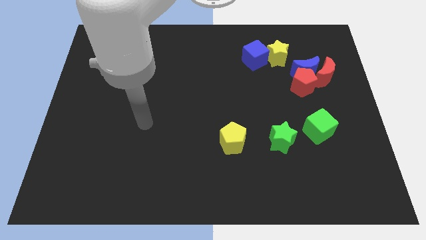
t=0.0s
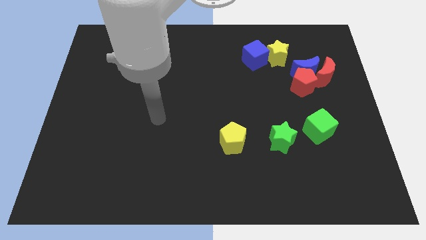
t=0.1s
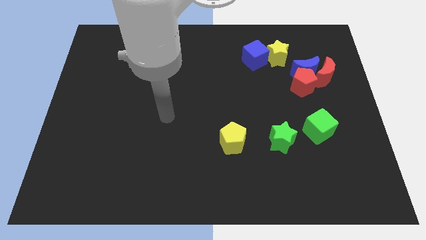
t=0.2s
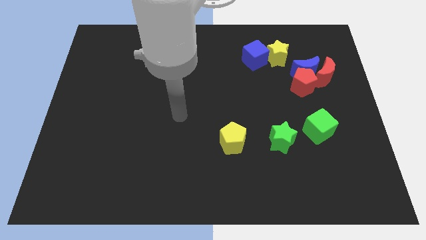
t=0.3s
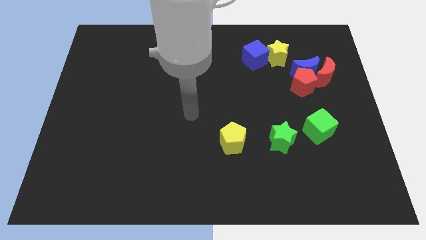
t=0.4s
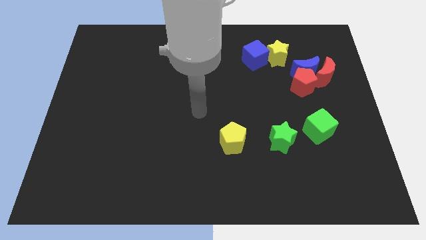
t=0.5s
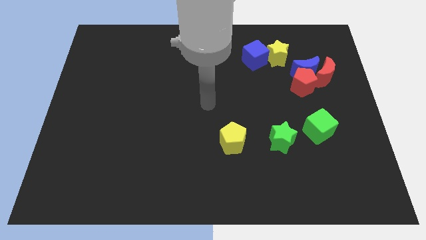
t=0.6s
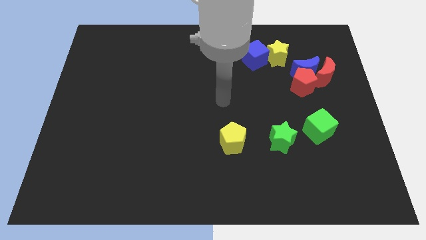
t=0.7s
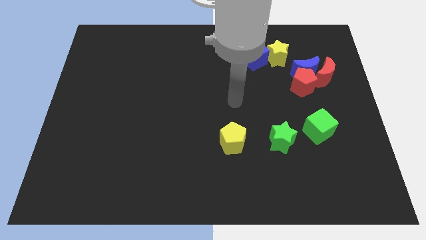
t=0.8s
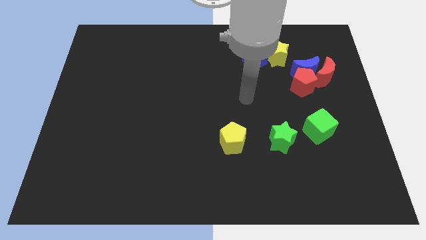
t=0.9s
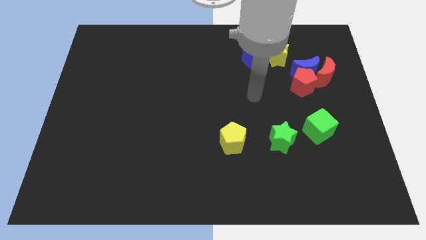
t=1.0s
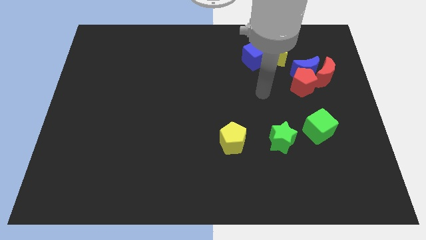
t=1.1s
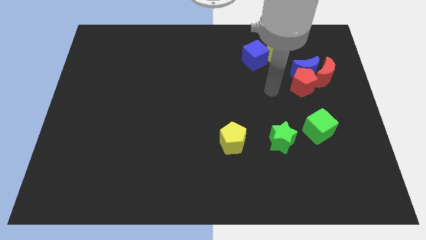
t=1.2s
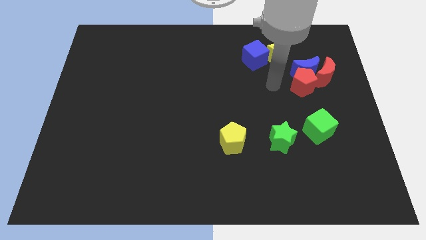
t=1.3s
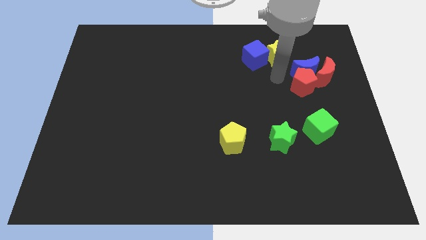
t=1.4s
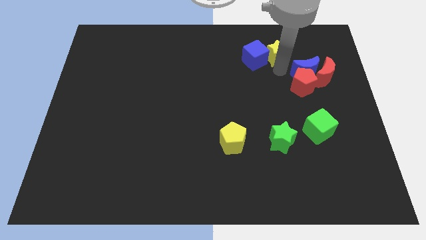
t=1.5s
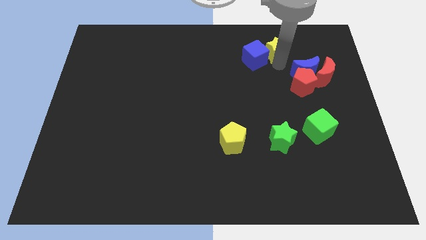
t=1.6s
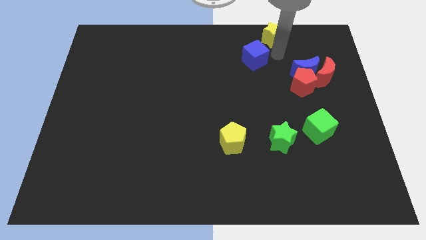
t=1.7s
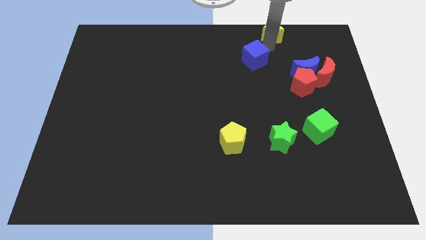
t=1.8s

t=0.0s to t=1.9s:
pull the blue cube apart from the yellow star

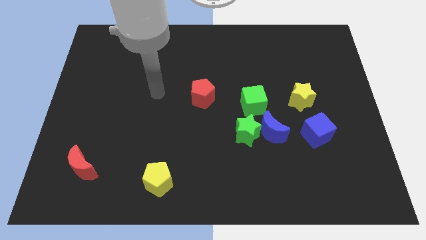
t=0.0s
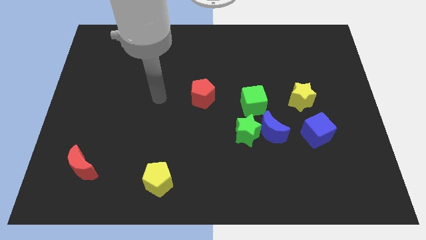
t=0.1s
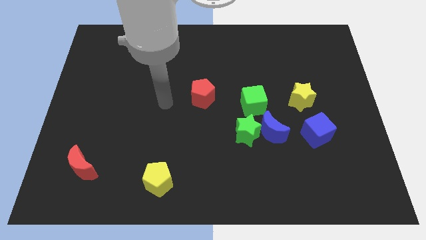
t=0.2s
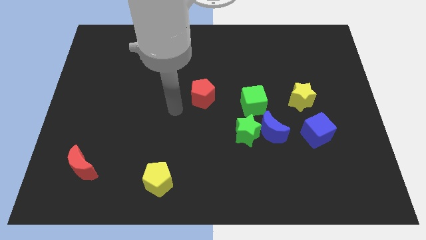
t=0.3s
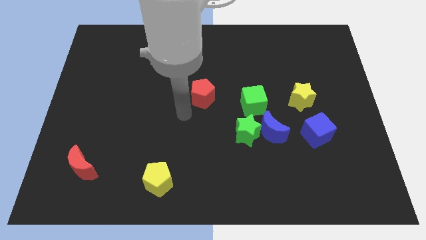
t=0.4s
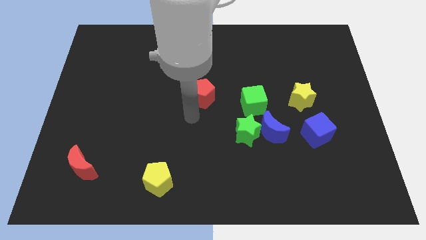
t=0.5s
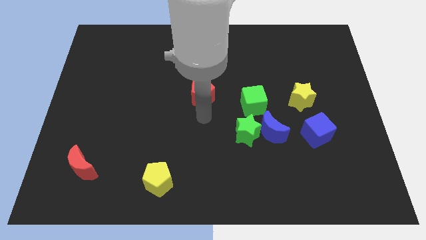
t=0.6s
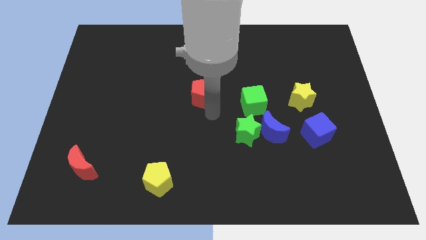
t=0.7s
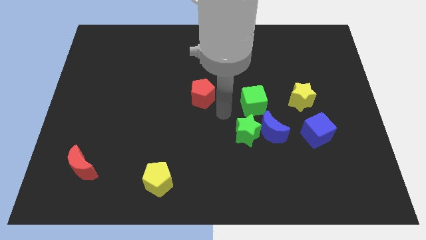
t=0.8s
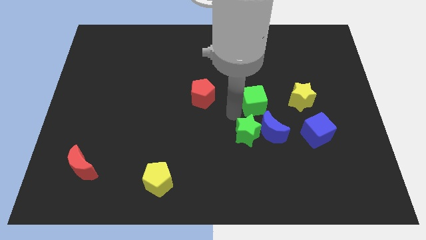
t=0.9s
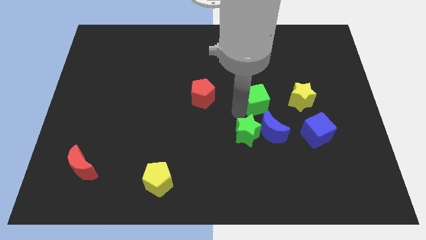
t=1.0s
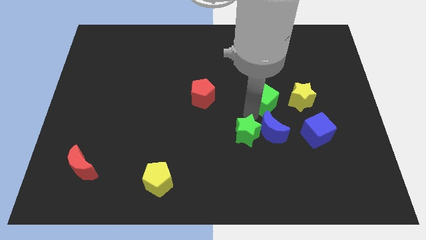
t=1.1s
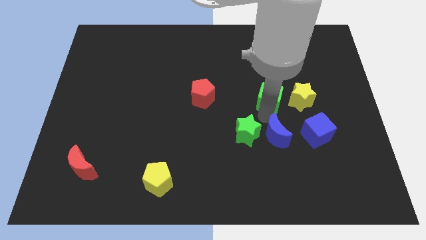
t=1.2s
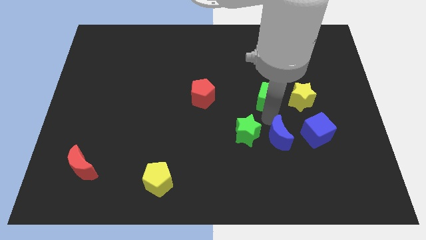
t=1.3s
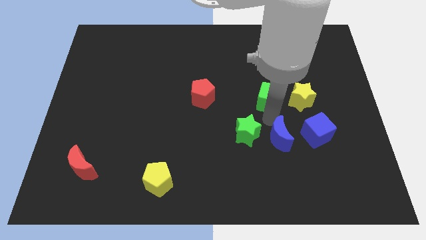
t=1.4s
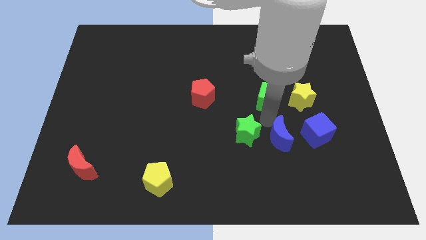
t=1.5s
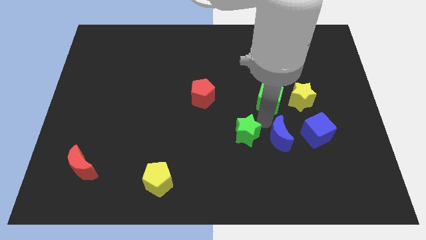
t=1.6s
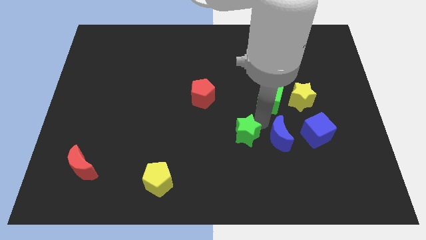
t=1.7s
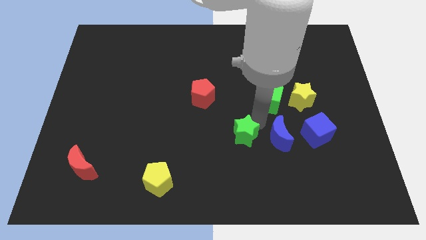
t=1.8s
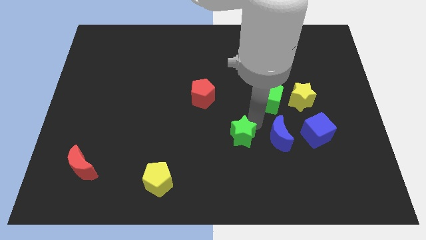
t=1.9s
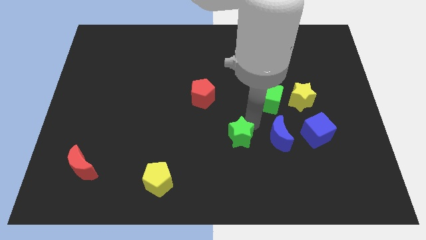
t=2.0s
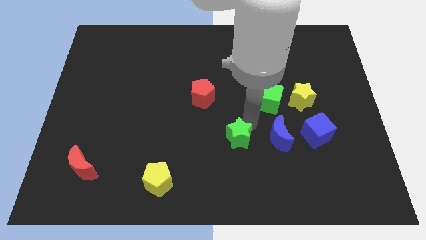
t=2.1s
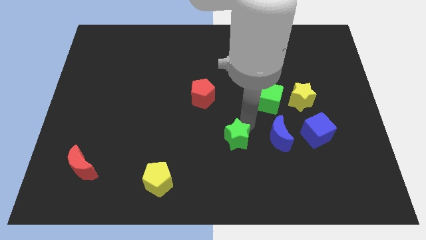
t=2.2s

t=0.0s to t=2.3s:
pull the green star apart from the blue moon and green cube

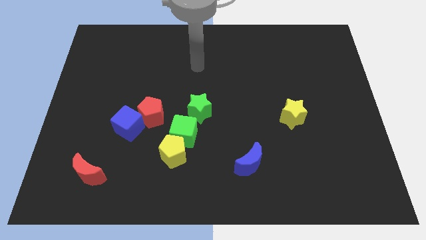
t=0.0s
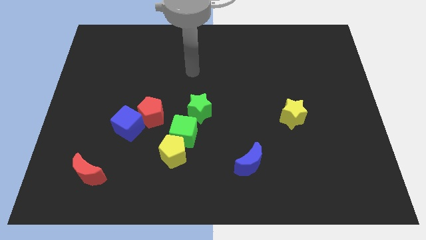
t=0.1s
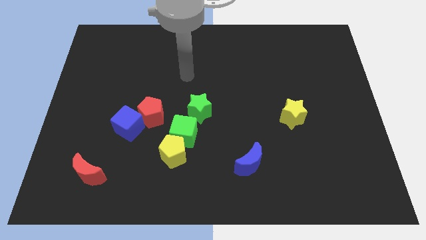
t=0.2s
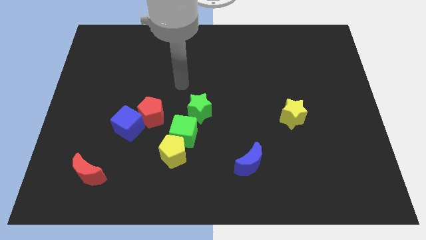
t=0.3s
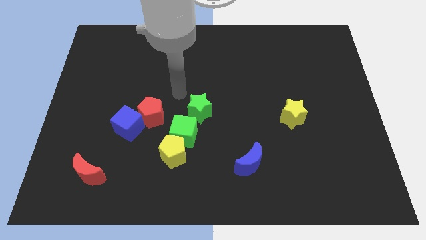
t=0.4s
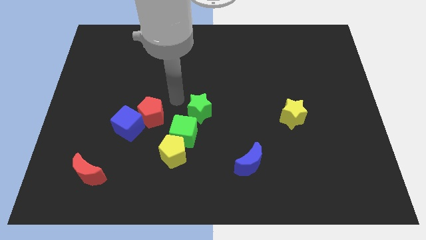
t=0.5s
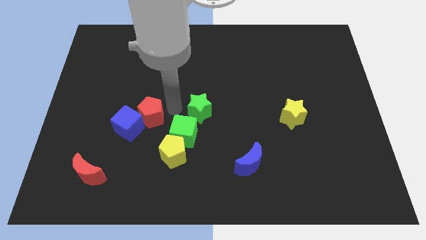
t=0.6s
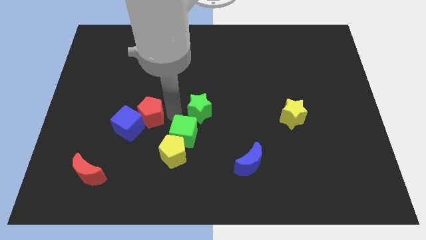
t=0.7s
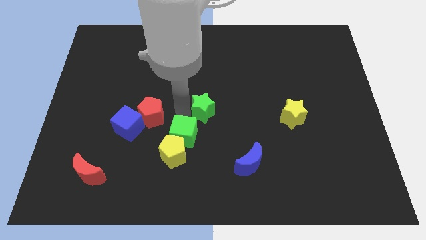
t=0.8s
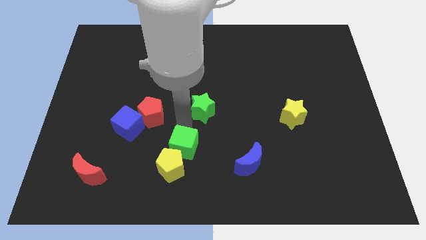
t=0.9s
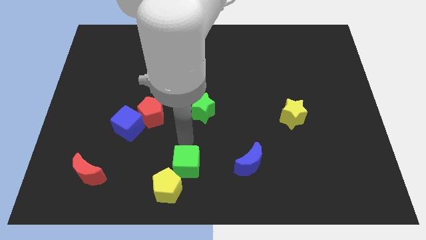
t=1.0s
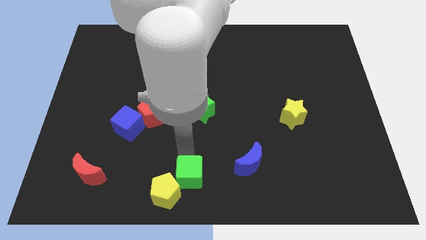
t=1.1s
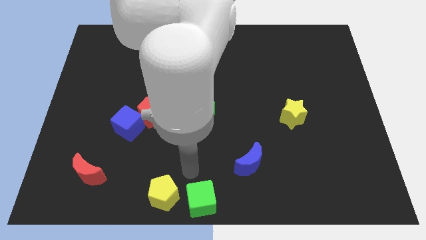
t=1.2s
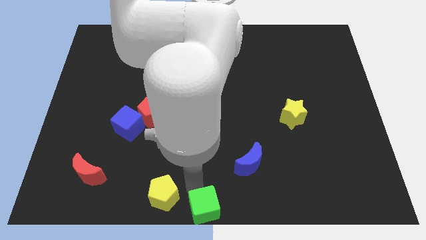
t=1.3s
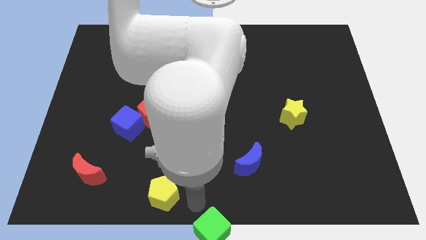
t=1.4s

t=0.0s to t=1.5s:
move the yellow pentagon away from the green cube

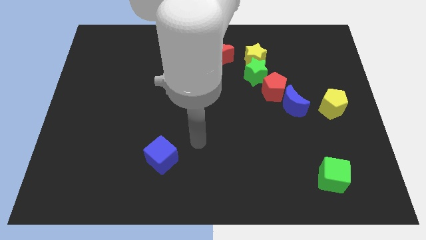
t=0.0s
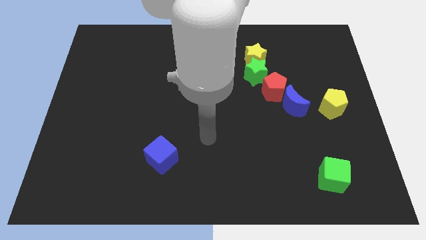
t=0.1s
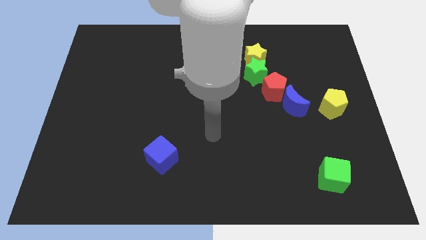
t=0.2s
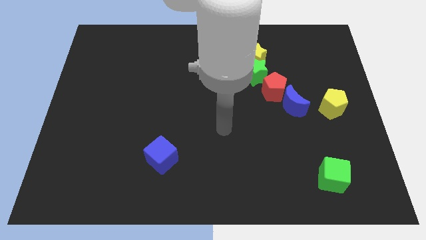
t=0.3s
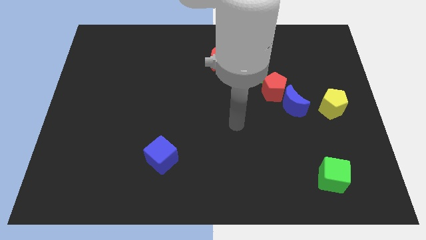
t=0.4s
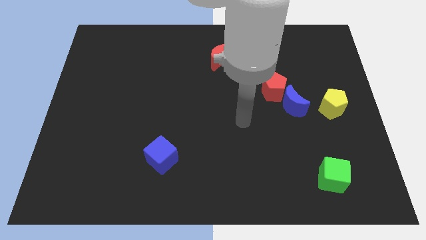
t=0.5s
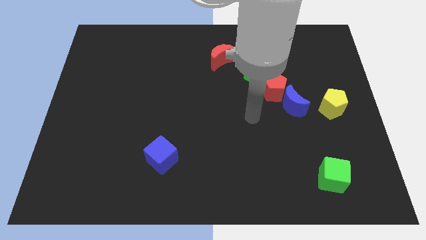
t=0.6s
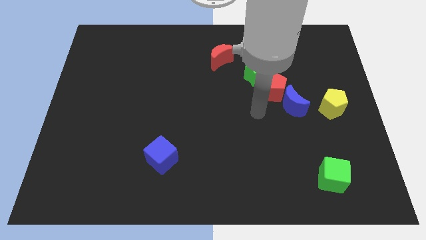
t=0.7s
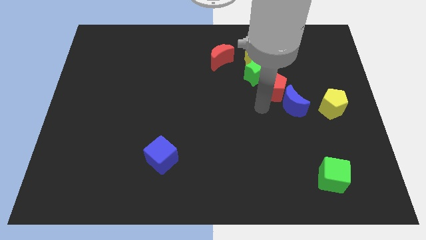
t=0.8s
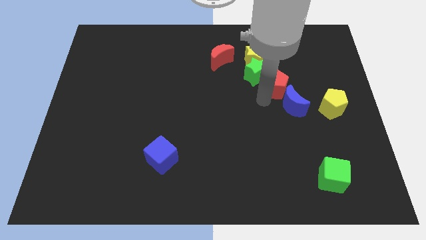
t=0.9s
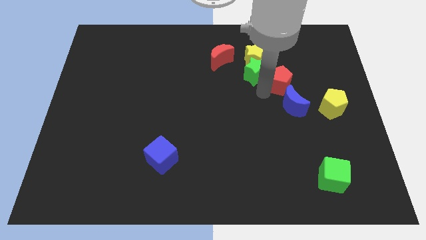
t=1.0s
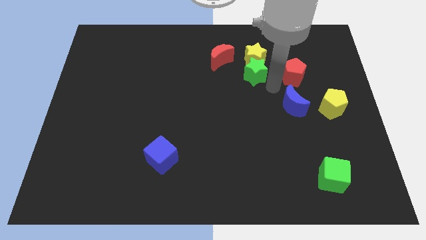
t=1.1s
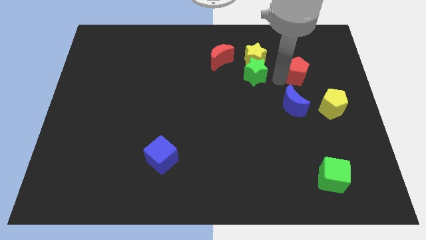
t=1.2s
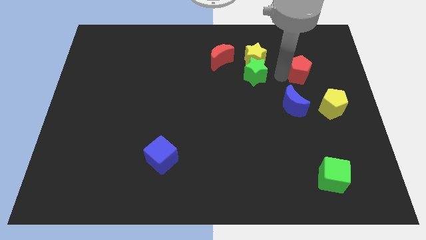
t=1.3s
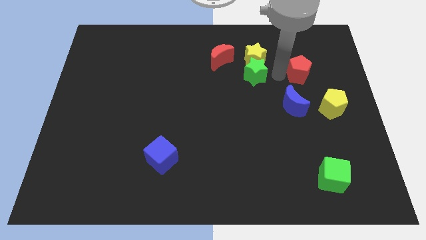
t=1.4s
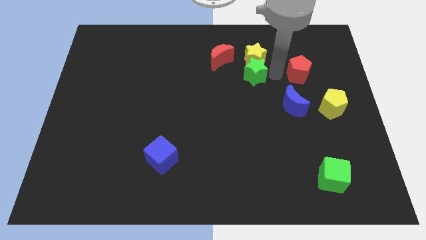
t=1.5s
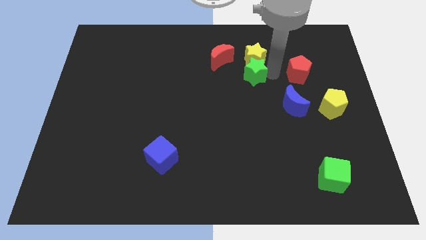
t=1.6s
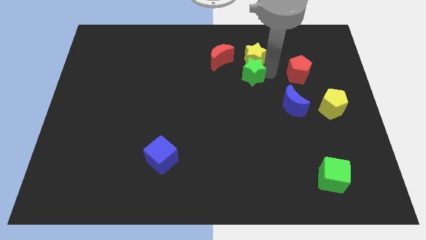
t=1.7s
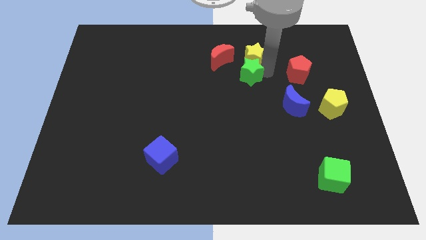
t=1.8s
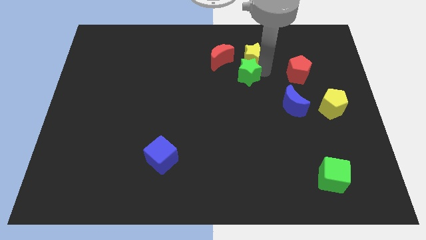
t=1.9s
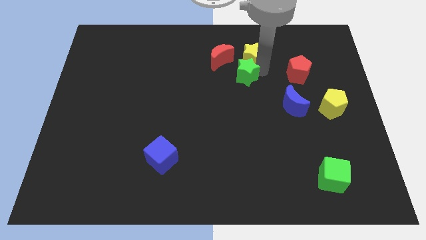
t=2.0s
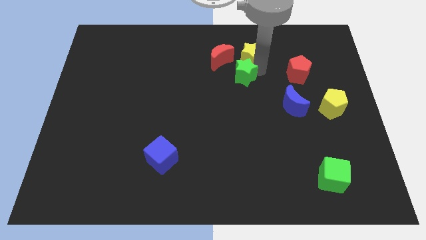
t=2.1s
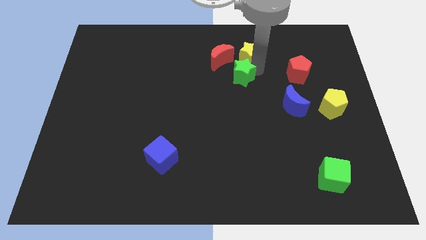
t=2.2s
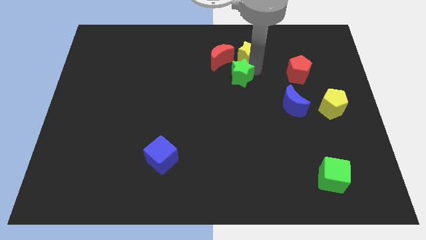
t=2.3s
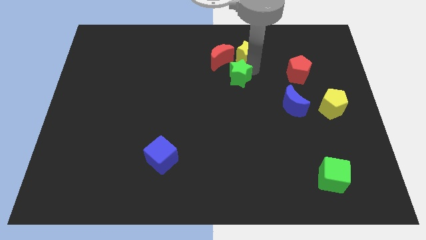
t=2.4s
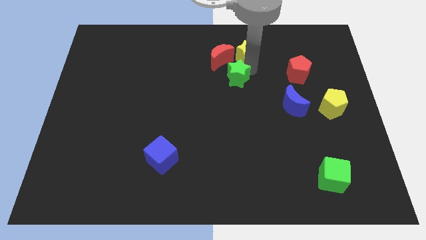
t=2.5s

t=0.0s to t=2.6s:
separate the green star from the yellow star and red pentagon

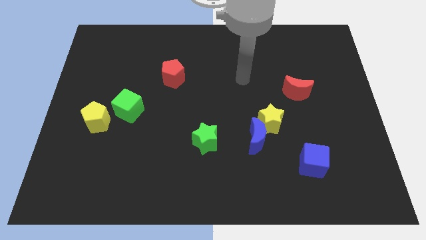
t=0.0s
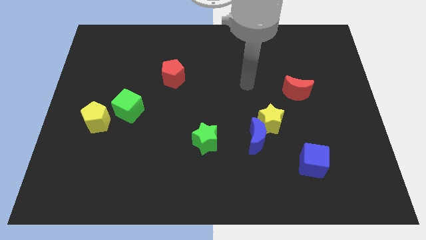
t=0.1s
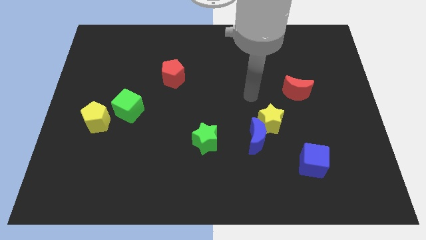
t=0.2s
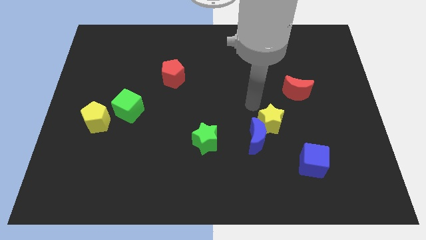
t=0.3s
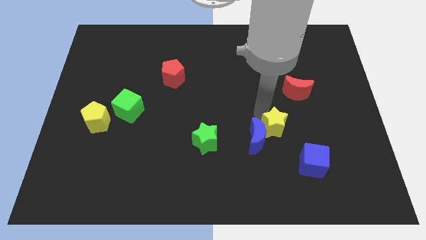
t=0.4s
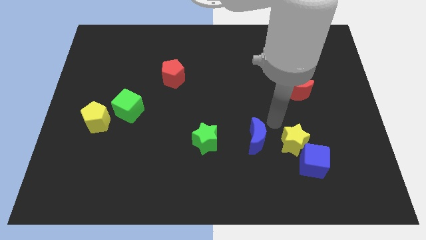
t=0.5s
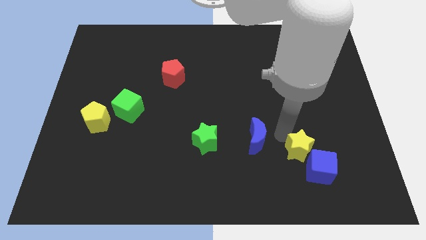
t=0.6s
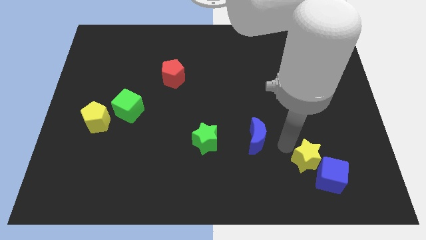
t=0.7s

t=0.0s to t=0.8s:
pull the blue moon apart from the yellow star

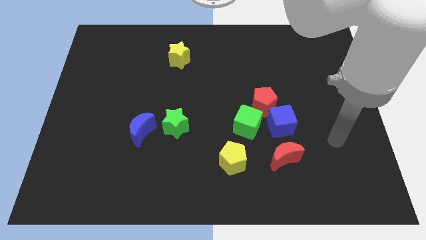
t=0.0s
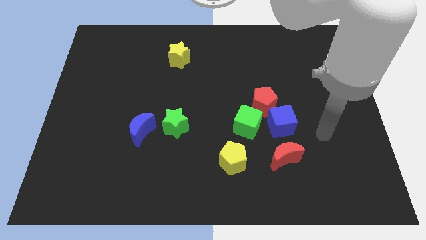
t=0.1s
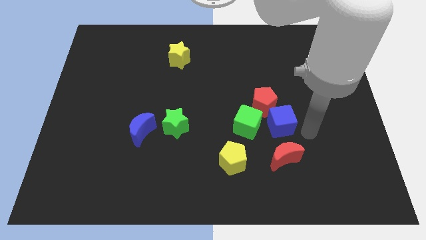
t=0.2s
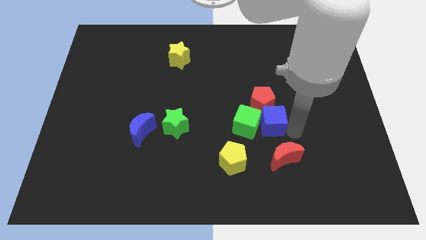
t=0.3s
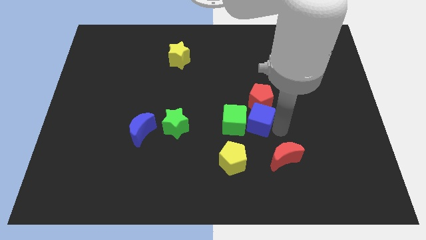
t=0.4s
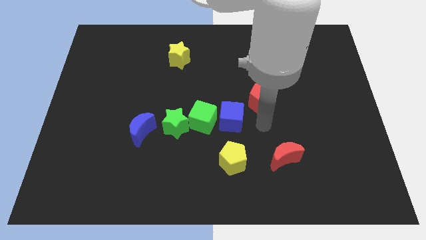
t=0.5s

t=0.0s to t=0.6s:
separate the red pentagon from the blue cube and green cube
